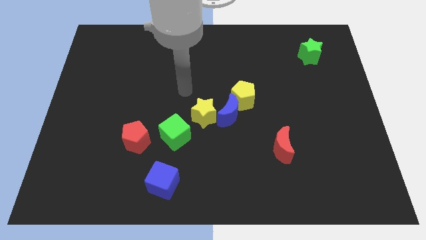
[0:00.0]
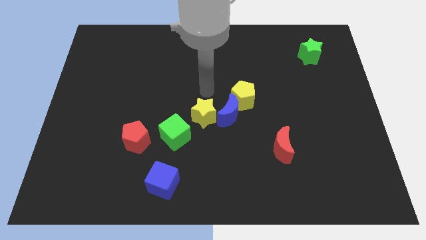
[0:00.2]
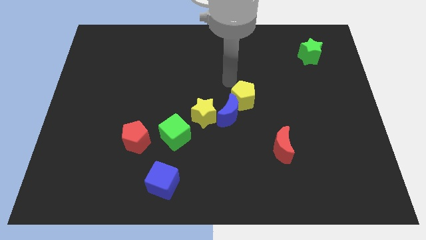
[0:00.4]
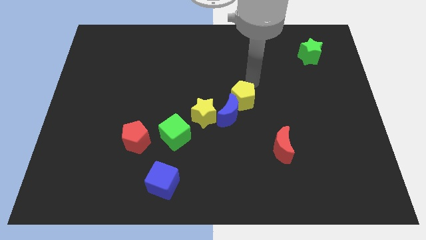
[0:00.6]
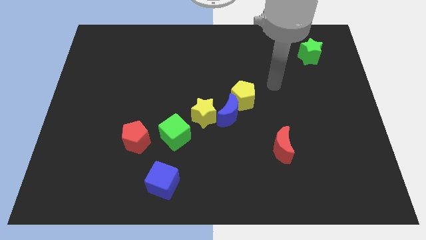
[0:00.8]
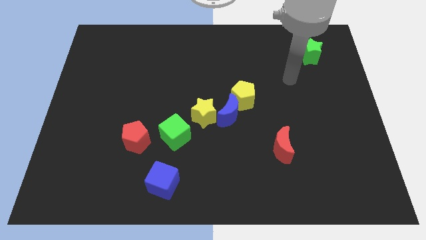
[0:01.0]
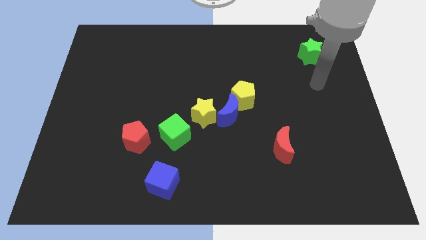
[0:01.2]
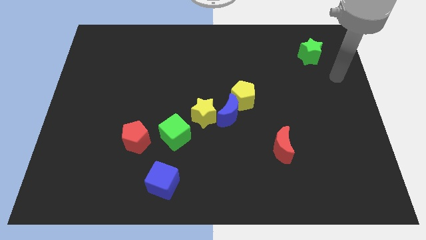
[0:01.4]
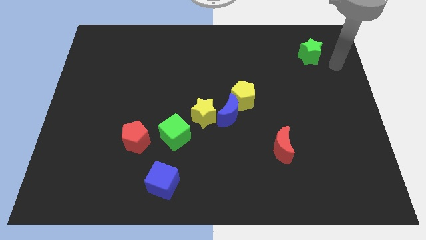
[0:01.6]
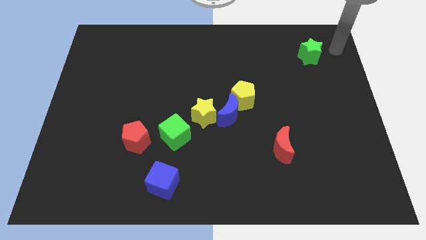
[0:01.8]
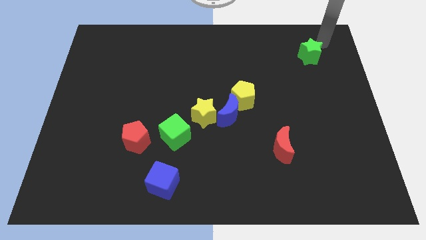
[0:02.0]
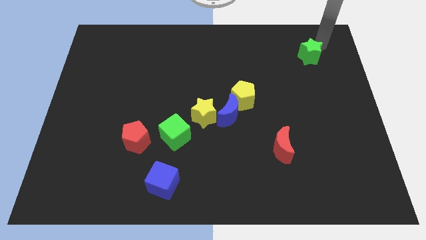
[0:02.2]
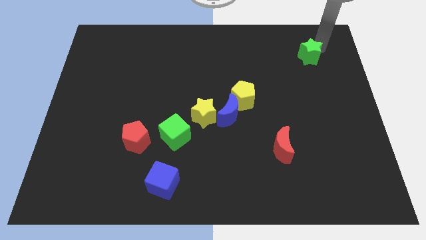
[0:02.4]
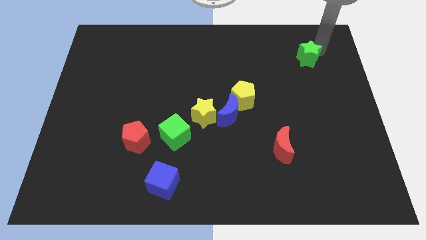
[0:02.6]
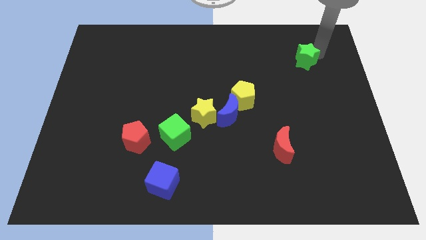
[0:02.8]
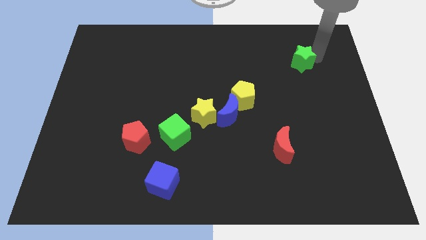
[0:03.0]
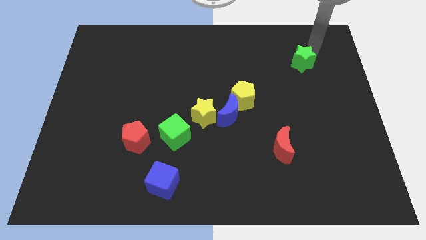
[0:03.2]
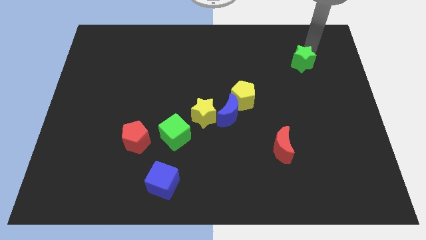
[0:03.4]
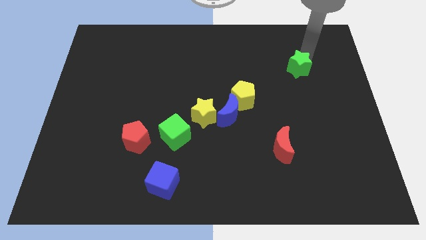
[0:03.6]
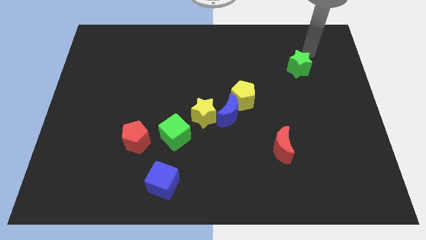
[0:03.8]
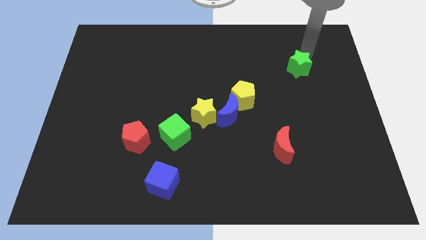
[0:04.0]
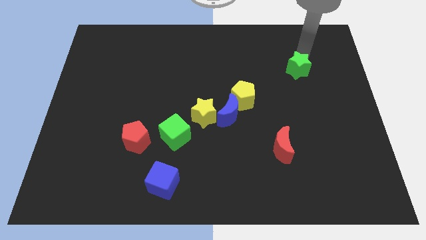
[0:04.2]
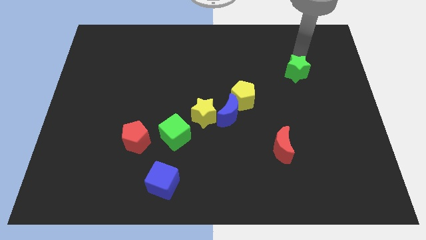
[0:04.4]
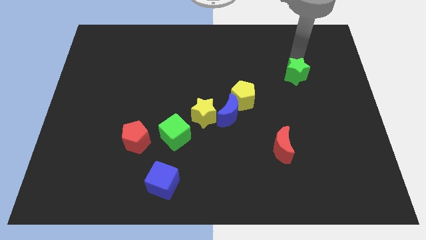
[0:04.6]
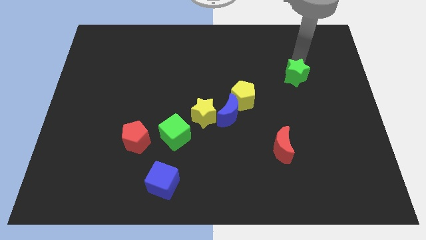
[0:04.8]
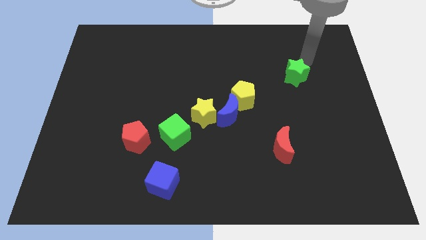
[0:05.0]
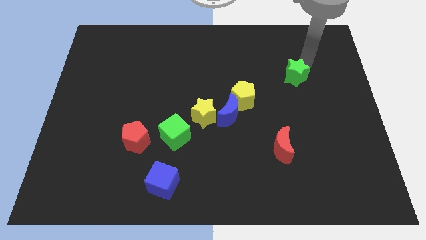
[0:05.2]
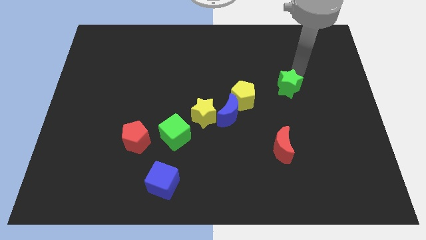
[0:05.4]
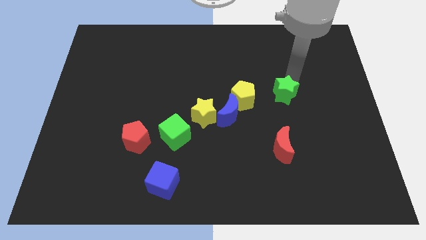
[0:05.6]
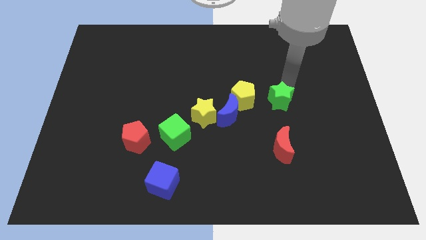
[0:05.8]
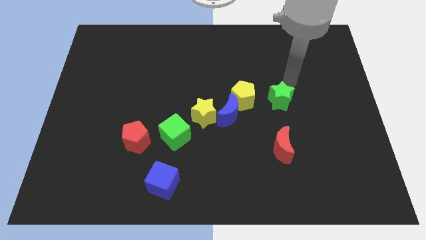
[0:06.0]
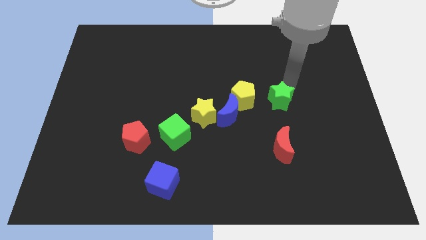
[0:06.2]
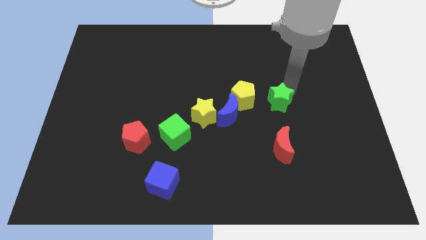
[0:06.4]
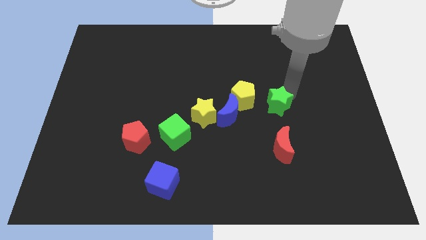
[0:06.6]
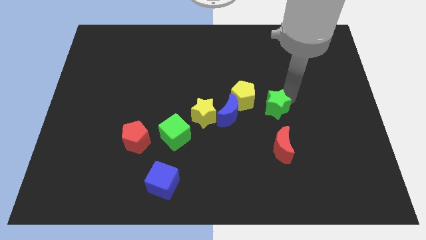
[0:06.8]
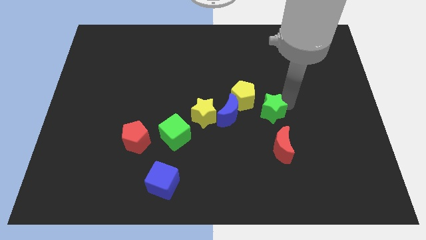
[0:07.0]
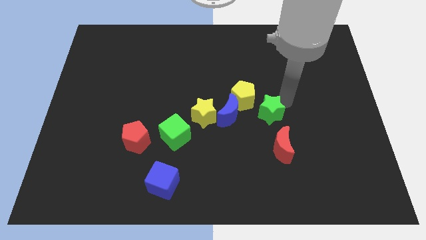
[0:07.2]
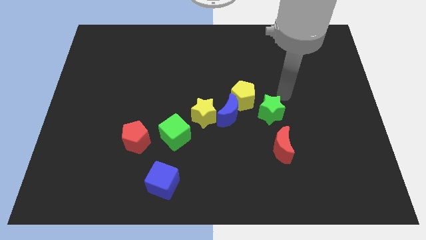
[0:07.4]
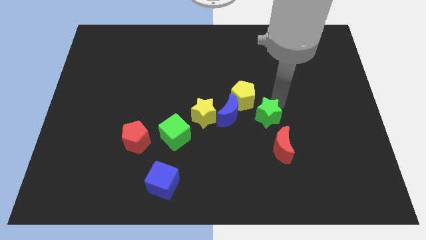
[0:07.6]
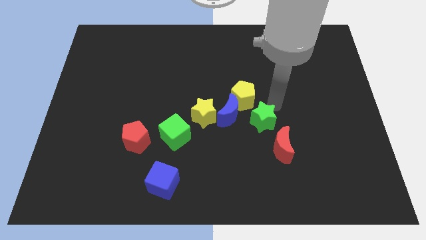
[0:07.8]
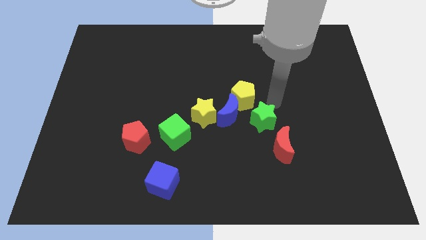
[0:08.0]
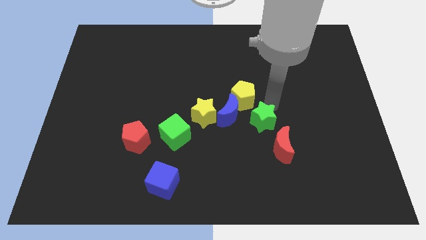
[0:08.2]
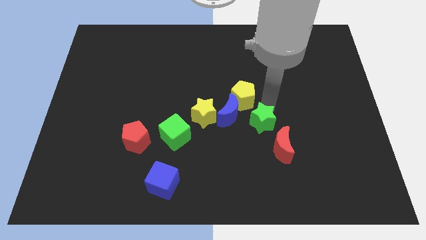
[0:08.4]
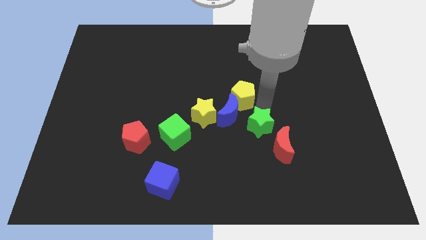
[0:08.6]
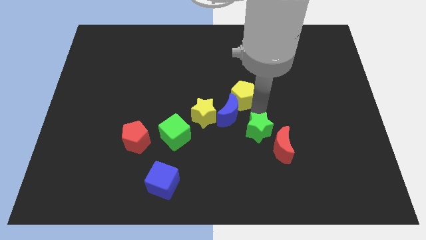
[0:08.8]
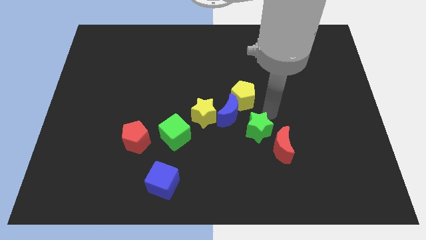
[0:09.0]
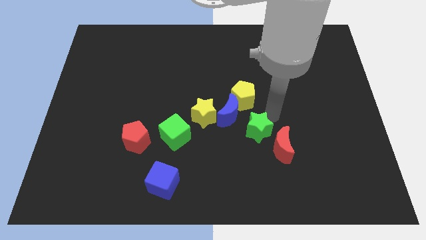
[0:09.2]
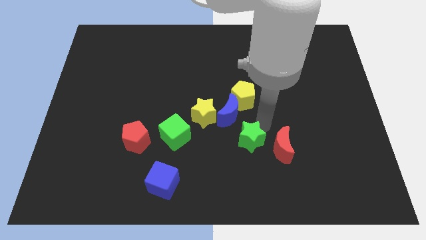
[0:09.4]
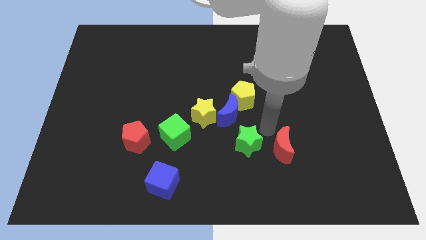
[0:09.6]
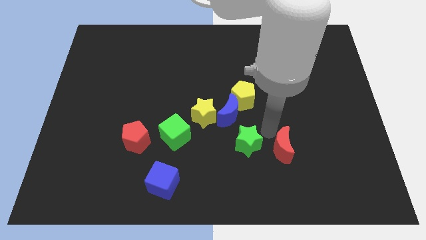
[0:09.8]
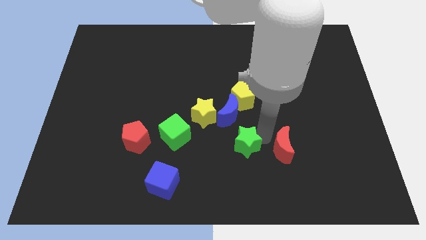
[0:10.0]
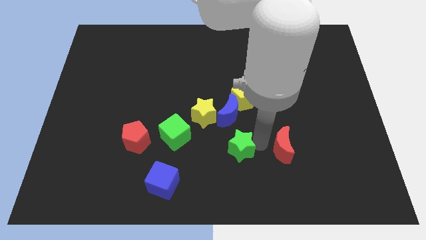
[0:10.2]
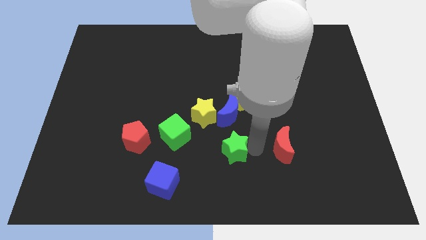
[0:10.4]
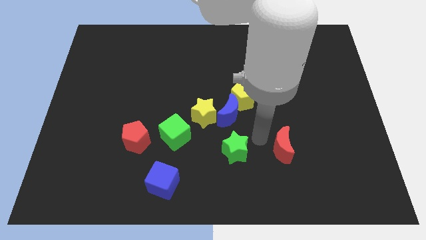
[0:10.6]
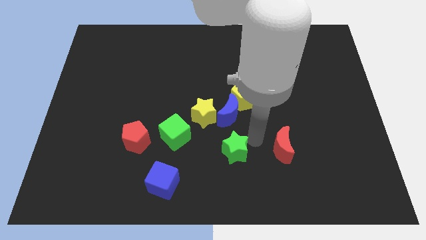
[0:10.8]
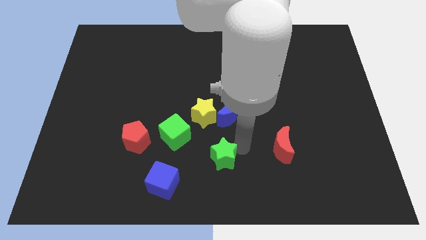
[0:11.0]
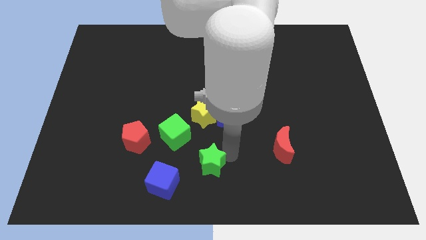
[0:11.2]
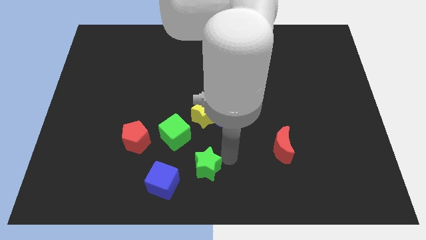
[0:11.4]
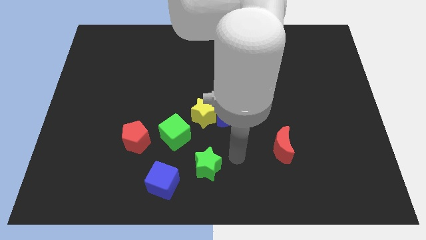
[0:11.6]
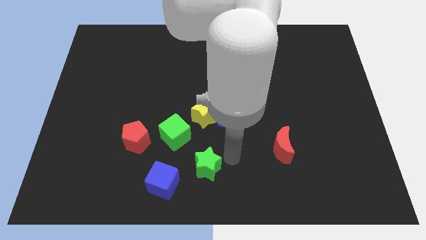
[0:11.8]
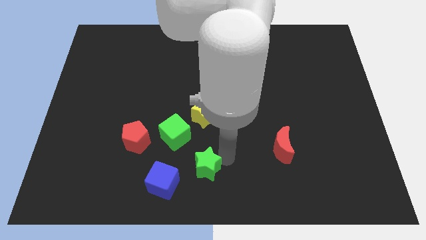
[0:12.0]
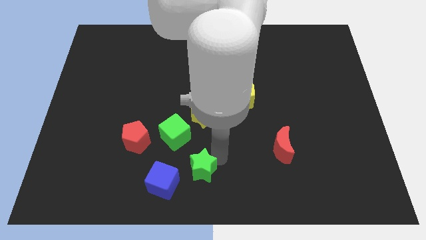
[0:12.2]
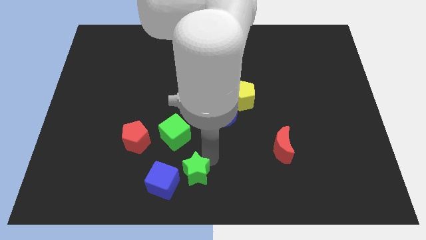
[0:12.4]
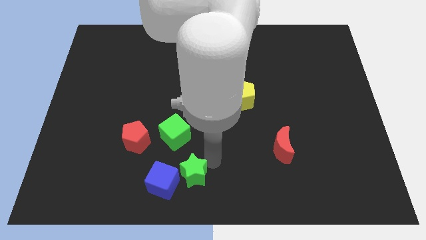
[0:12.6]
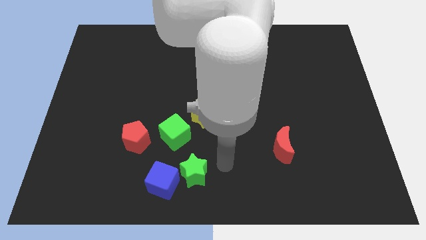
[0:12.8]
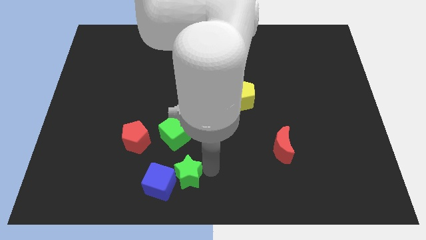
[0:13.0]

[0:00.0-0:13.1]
slide the green star towards the blue cube
